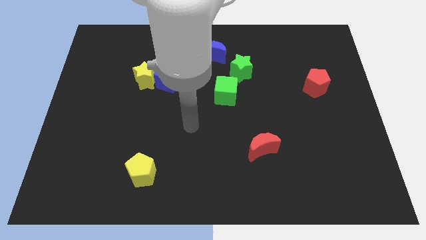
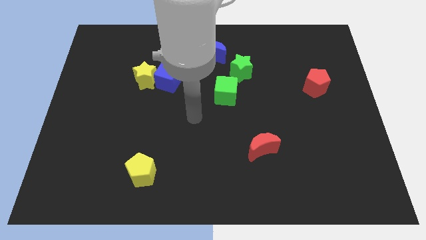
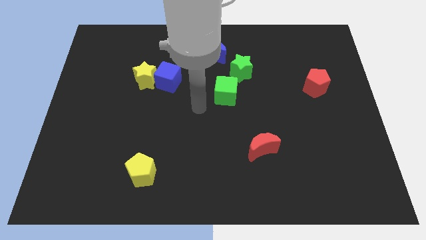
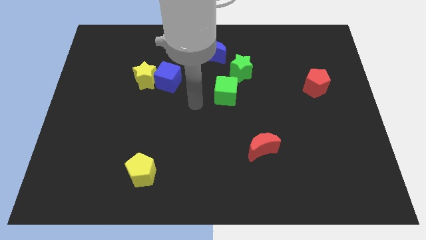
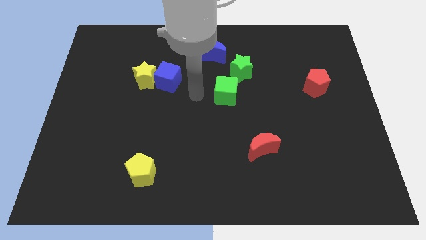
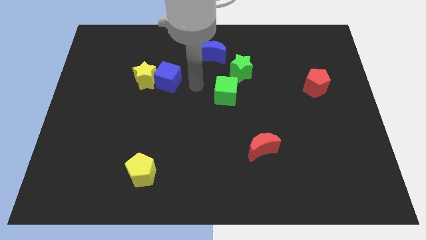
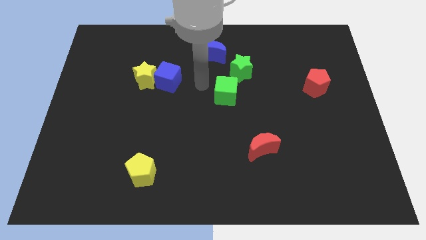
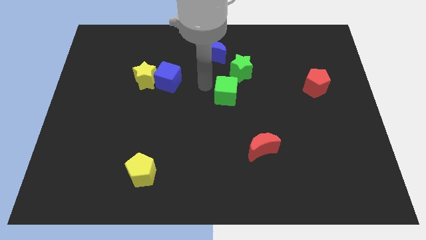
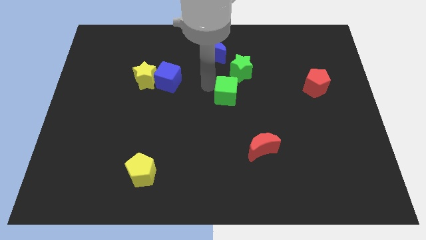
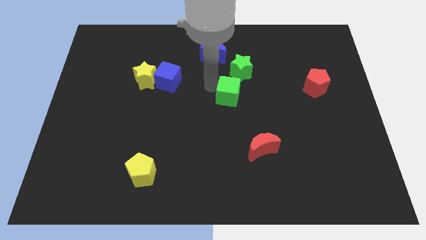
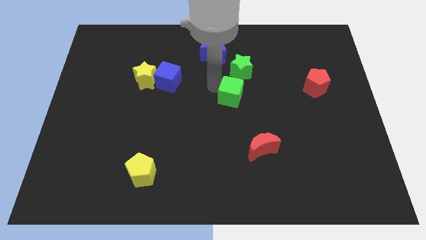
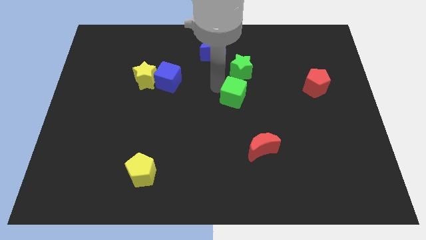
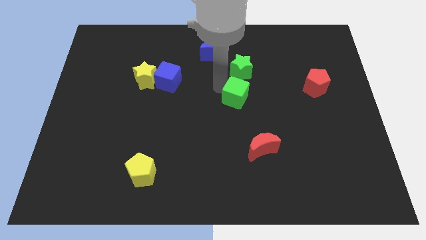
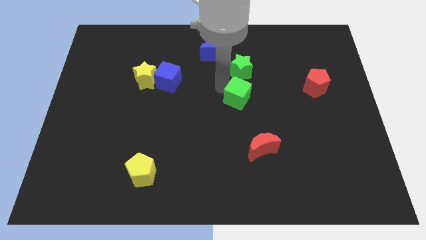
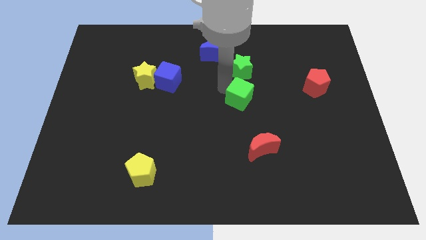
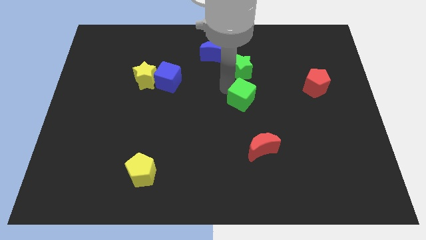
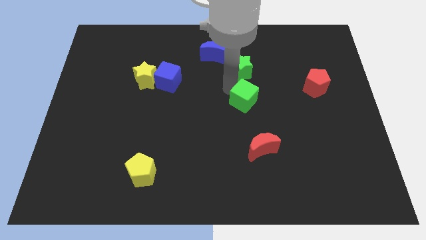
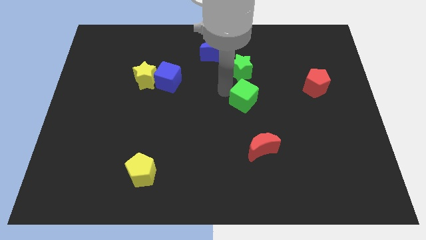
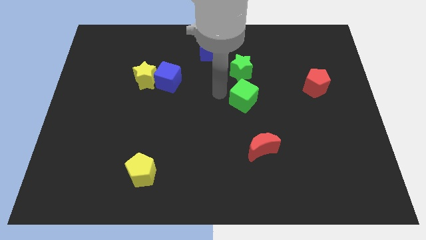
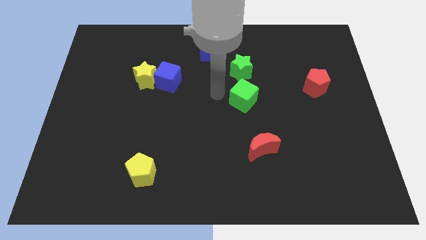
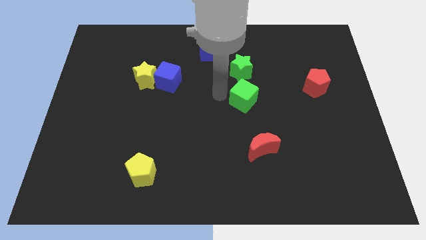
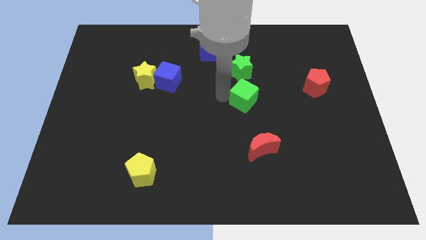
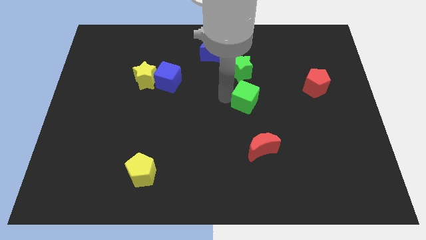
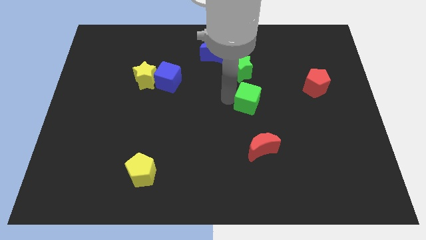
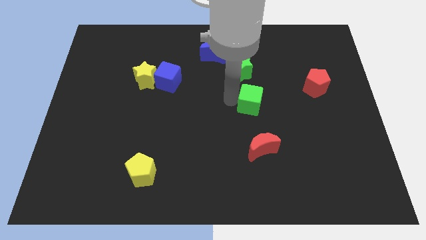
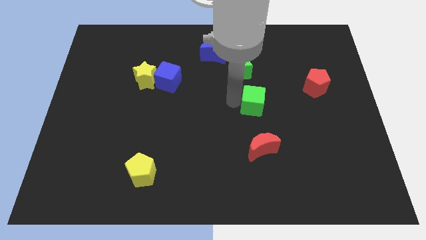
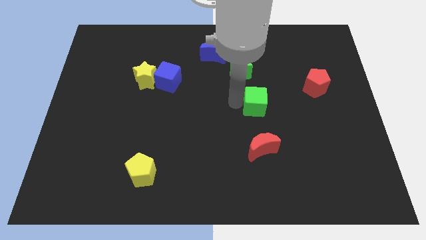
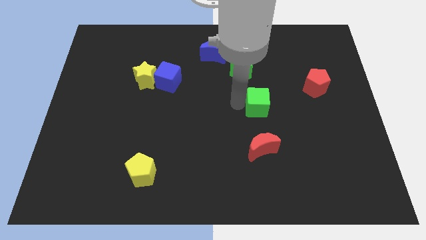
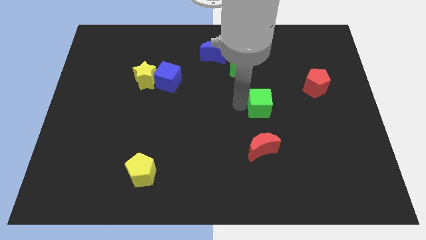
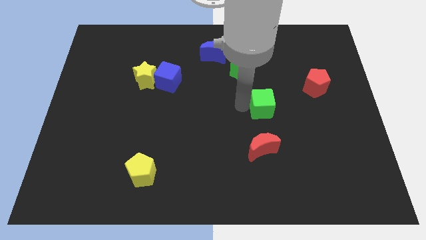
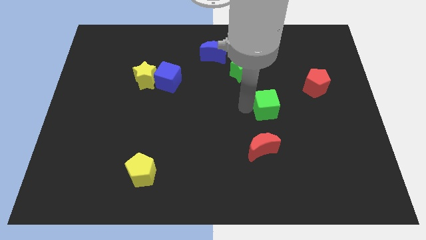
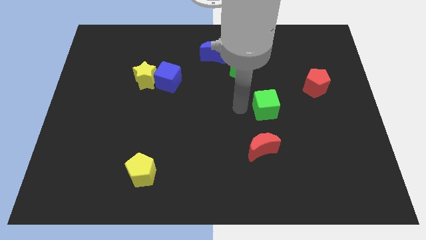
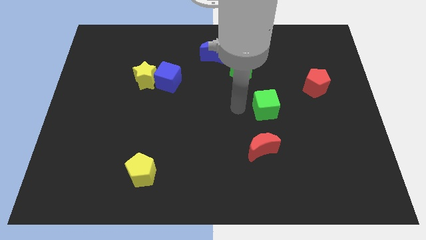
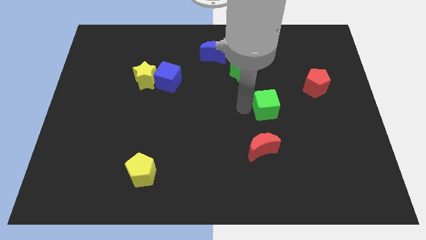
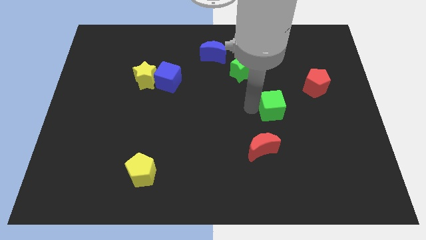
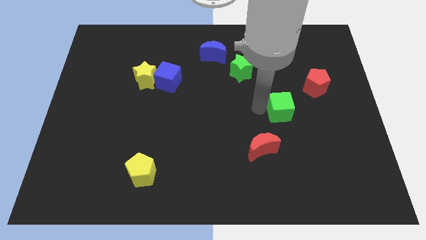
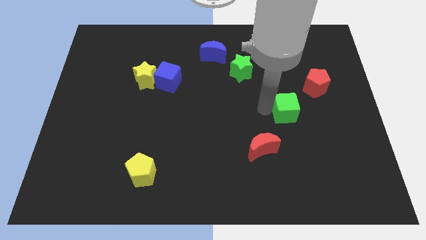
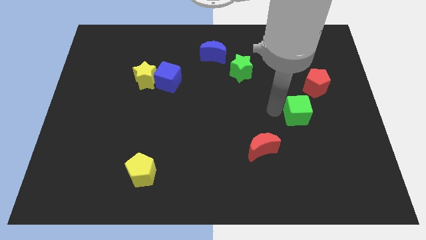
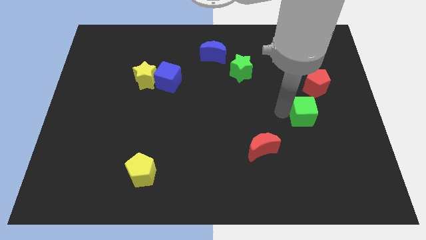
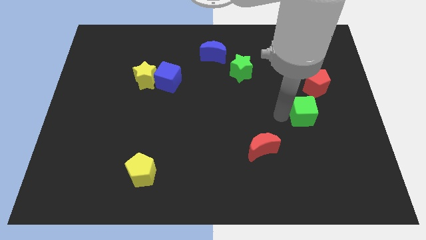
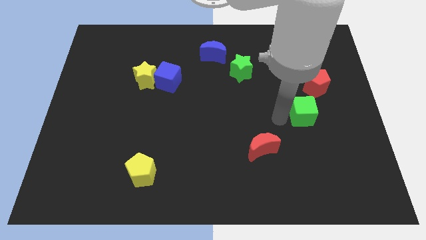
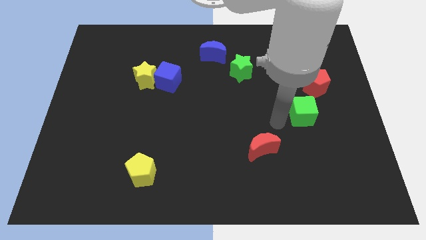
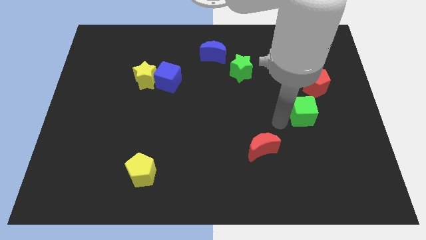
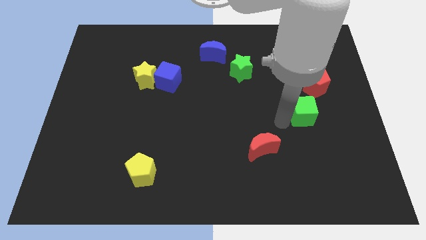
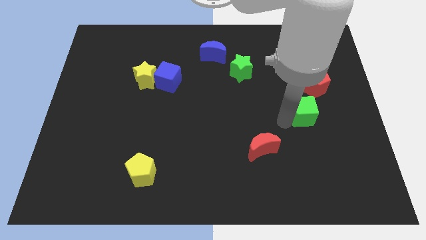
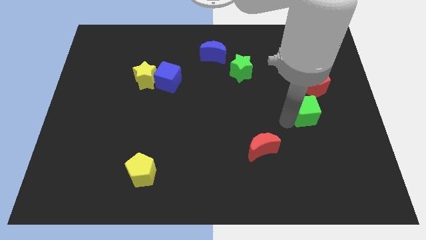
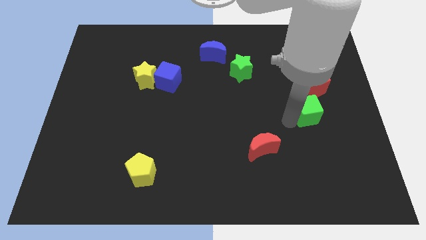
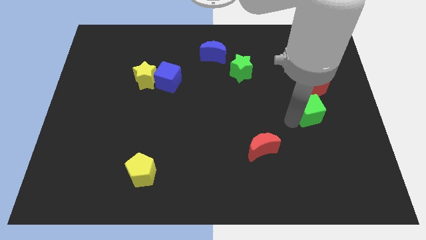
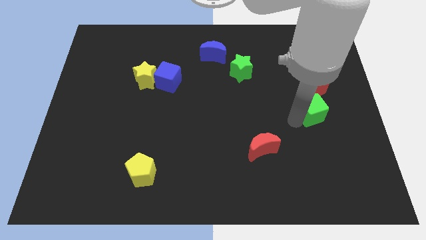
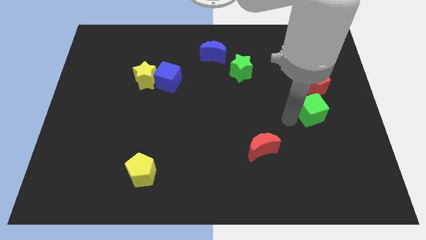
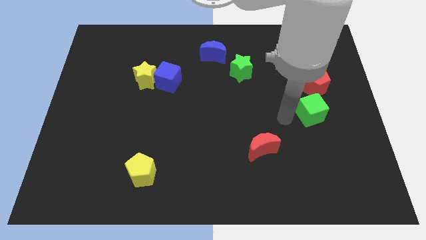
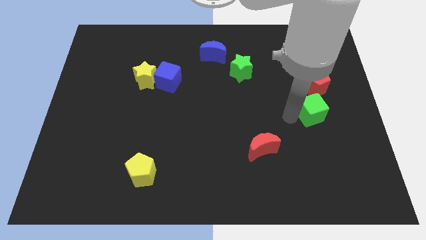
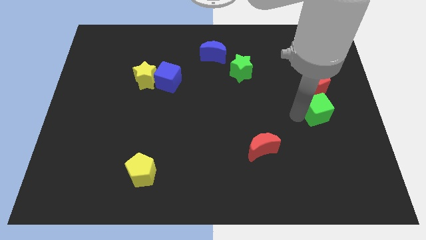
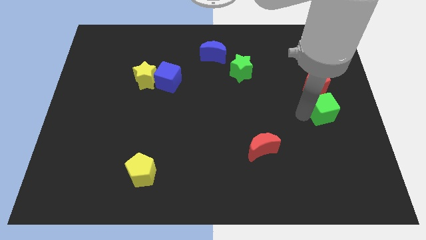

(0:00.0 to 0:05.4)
move the green cube to the right side

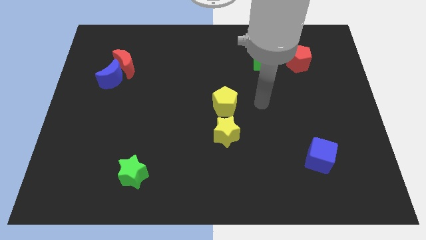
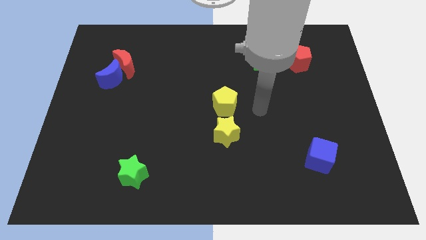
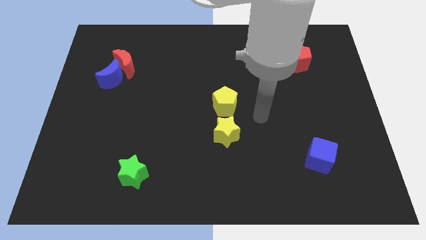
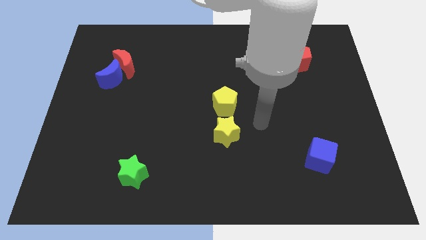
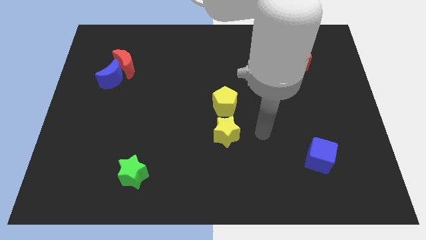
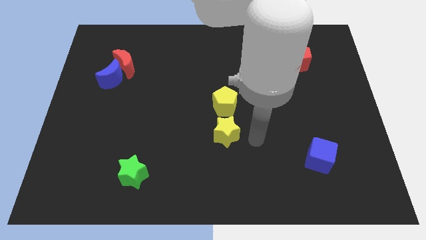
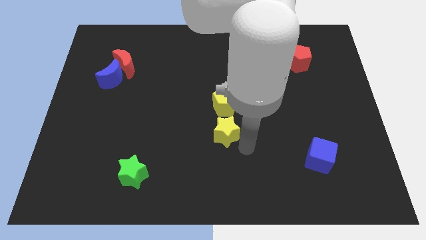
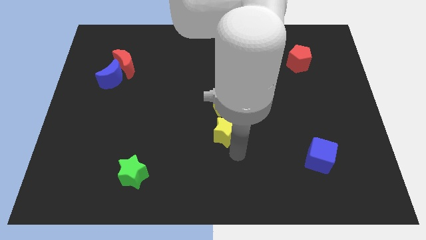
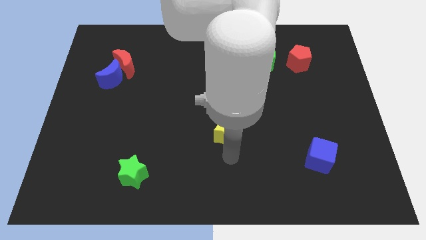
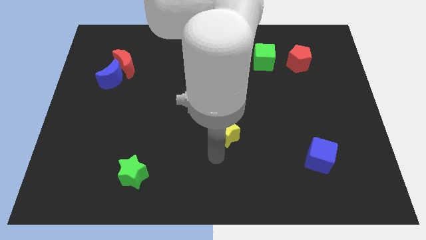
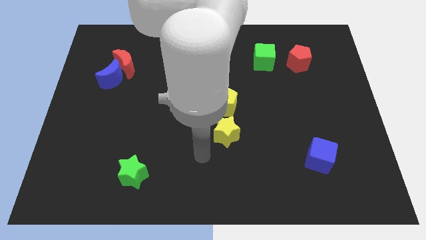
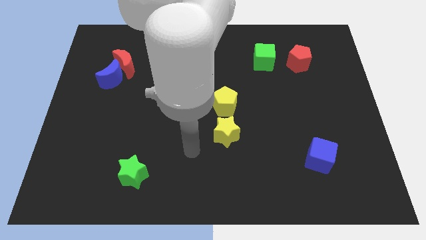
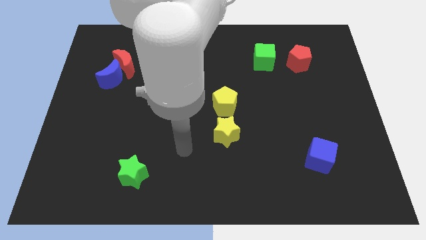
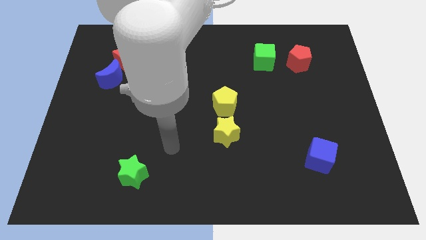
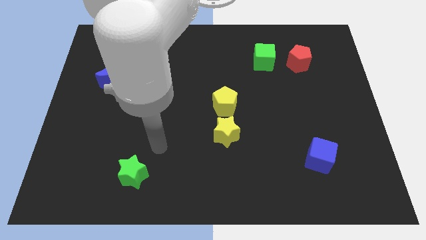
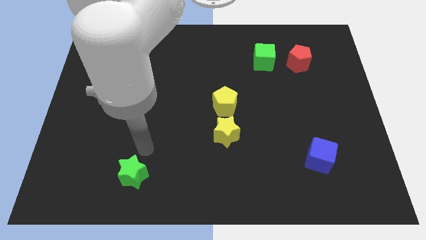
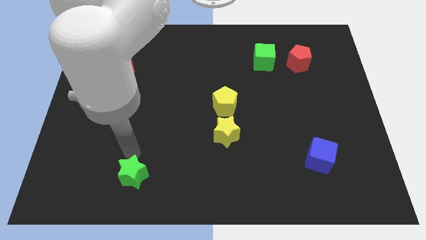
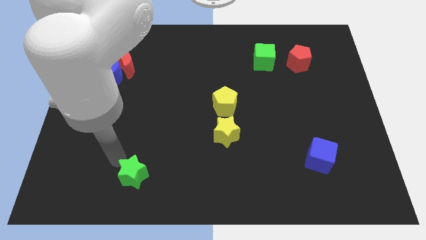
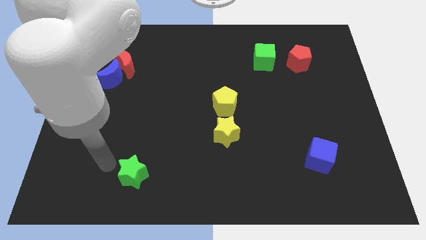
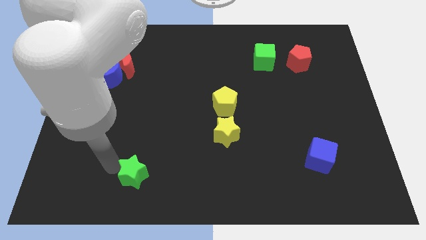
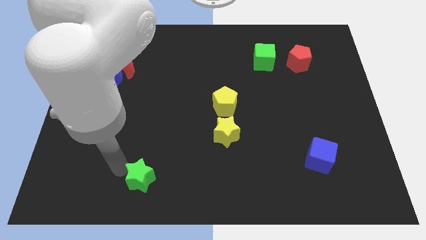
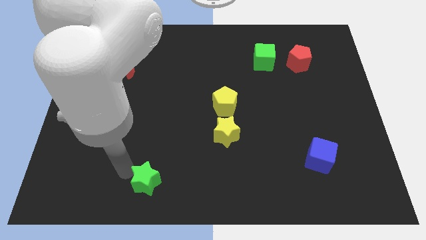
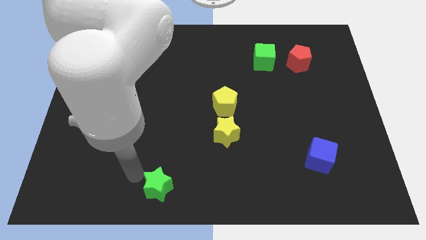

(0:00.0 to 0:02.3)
slide the green star to the bottom side
